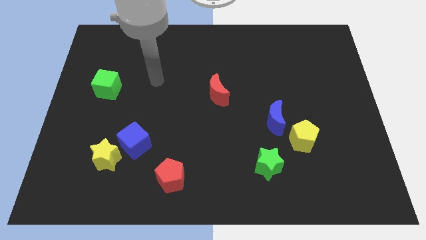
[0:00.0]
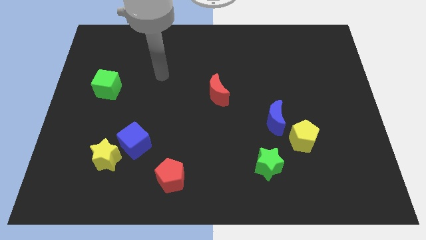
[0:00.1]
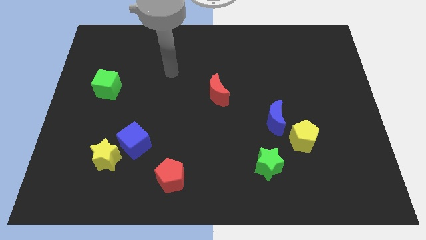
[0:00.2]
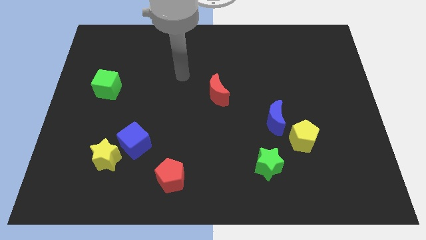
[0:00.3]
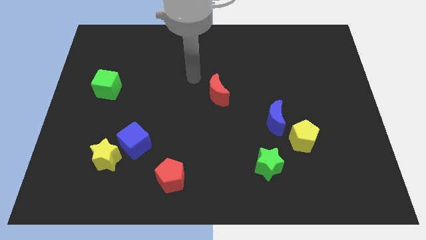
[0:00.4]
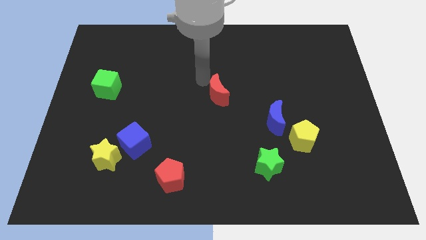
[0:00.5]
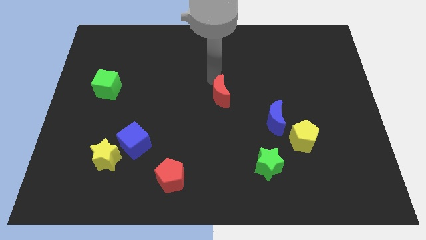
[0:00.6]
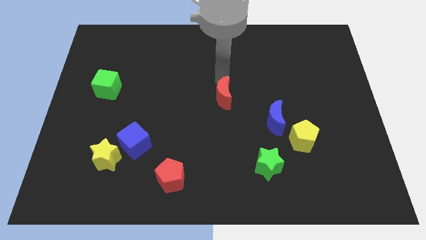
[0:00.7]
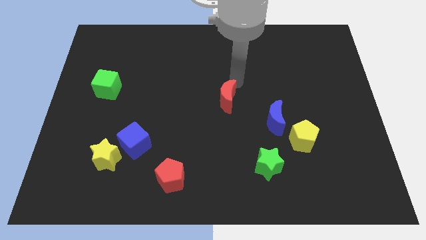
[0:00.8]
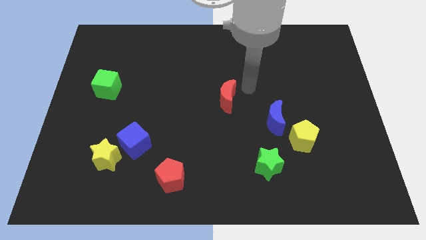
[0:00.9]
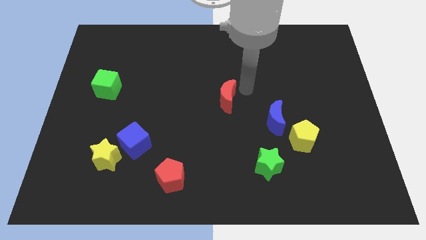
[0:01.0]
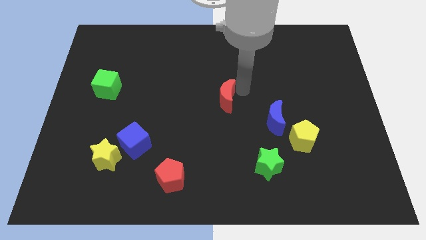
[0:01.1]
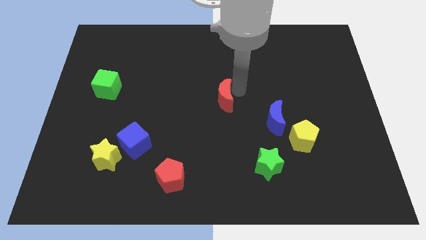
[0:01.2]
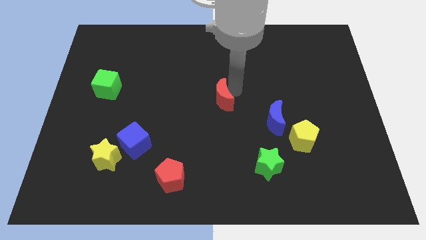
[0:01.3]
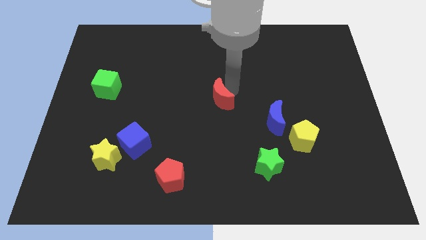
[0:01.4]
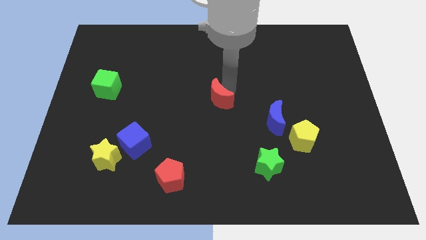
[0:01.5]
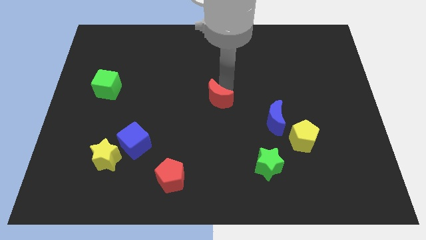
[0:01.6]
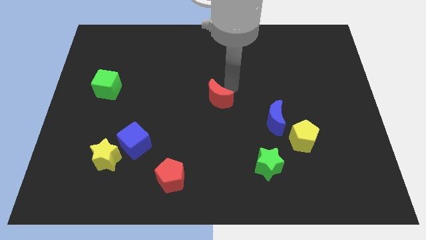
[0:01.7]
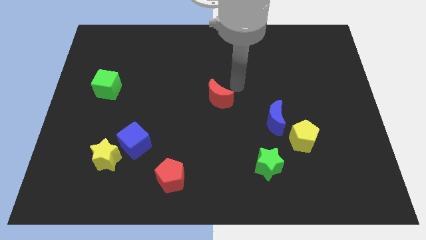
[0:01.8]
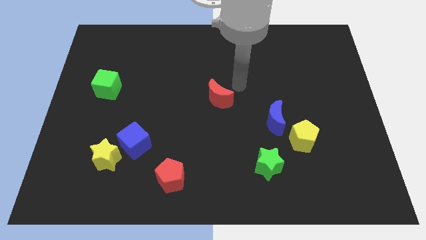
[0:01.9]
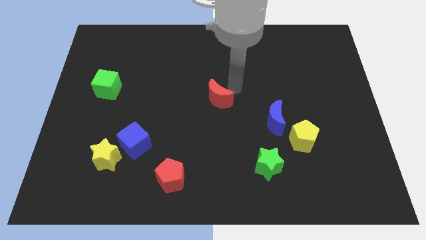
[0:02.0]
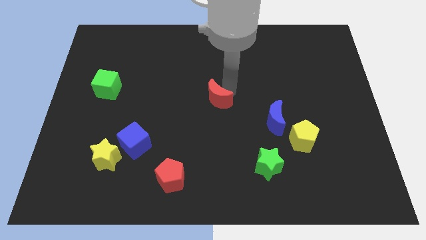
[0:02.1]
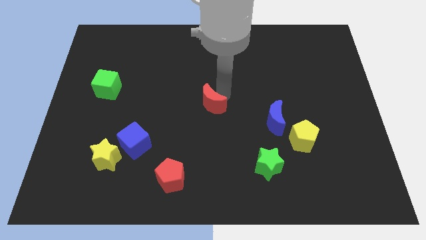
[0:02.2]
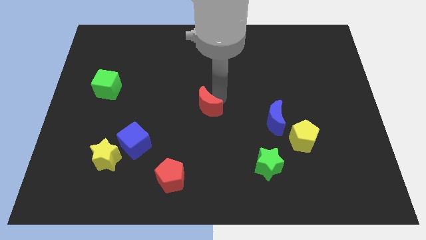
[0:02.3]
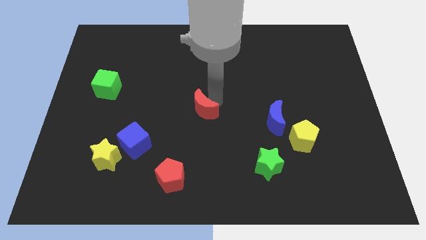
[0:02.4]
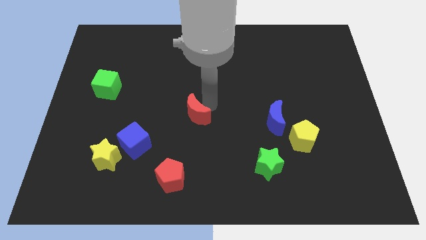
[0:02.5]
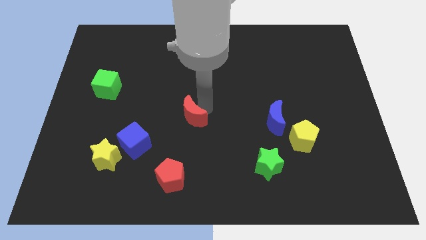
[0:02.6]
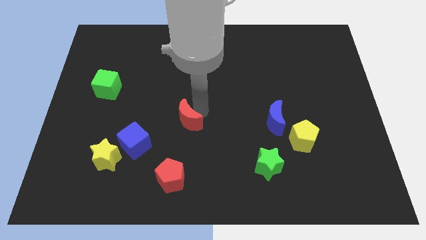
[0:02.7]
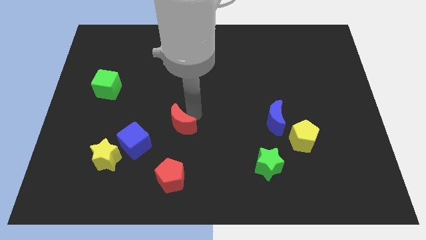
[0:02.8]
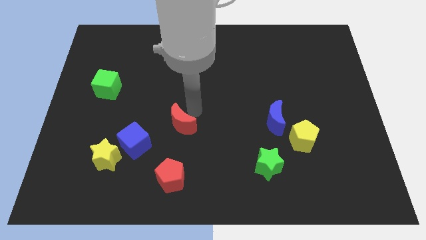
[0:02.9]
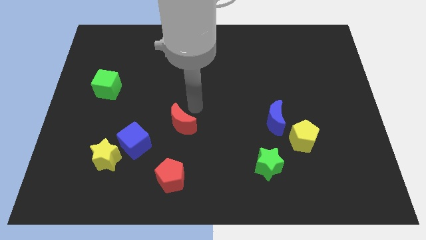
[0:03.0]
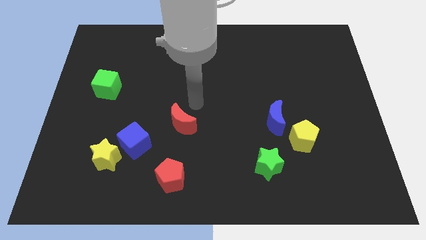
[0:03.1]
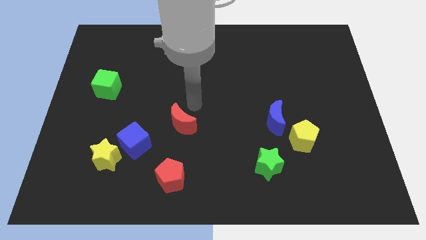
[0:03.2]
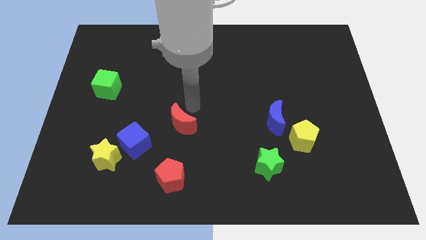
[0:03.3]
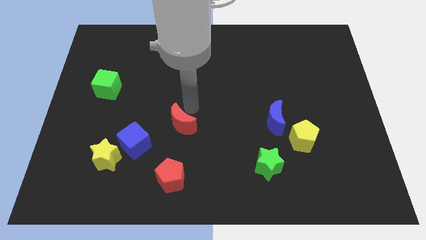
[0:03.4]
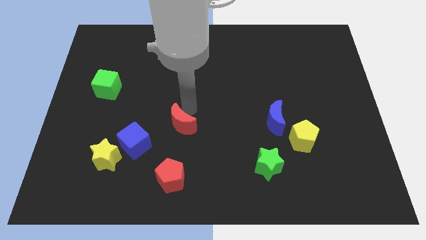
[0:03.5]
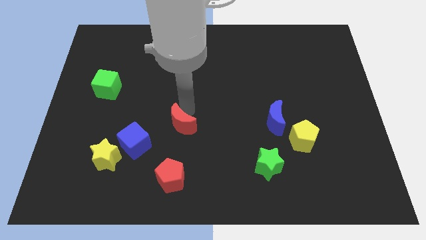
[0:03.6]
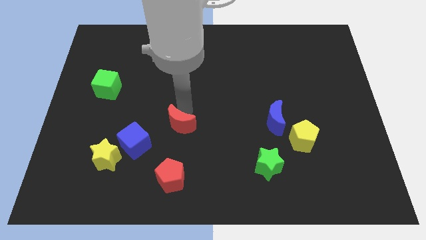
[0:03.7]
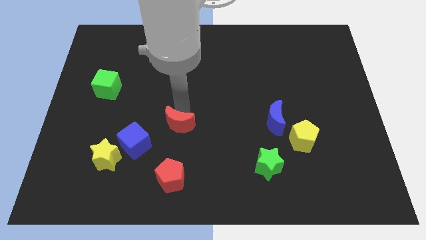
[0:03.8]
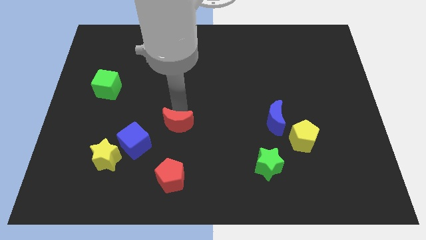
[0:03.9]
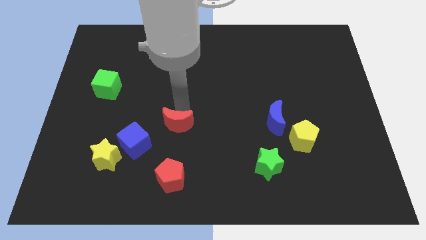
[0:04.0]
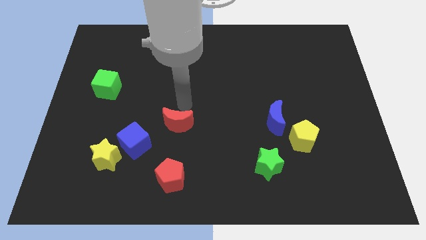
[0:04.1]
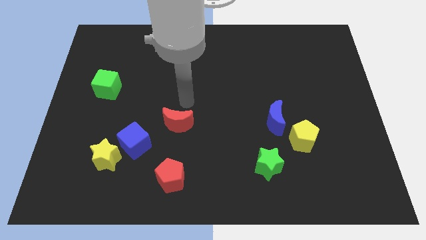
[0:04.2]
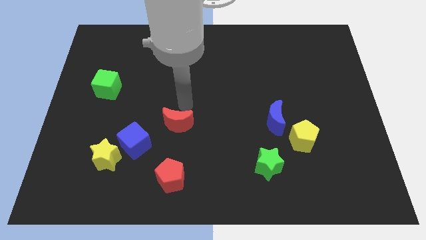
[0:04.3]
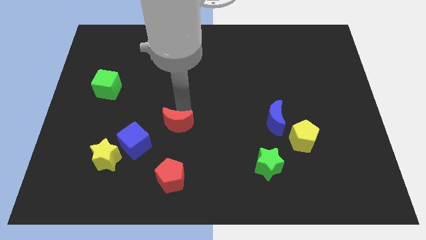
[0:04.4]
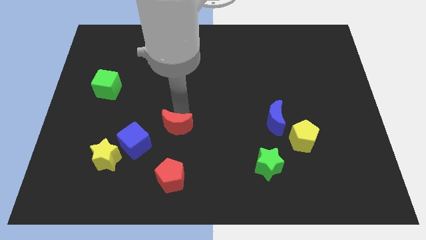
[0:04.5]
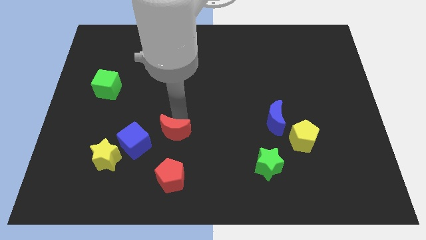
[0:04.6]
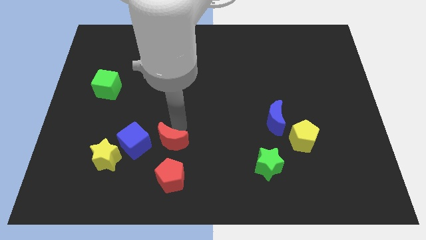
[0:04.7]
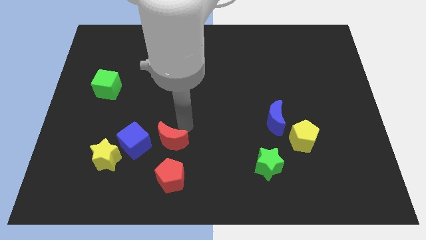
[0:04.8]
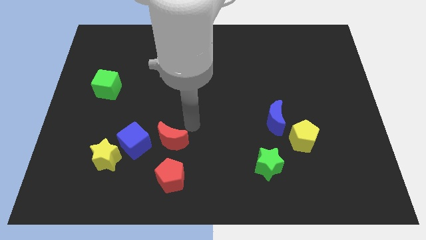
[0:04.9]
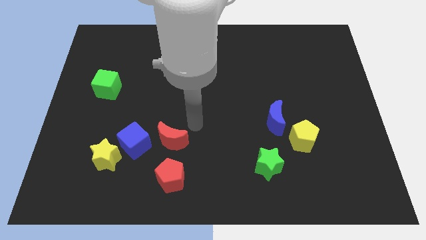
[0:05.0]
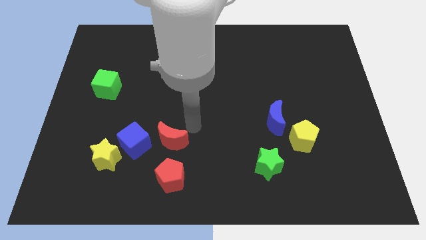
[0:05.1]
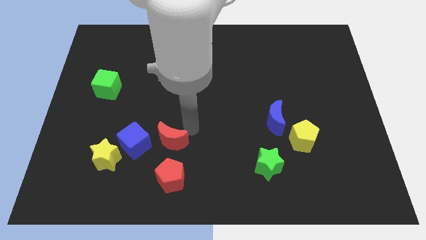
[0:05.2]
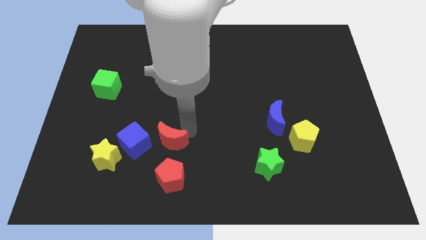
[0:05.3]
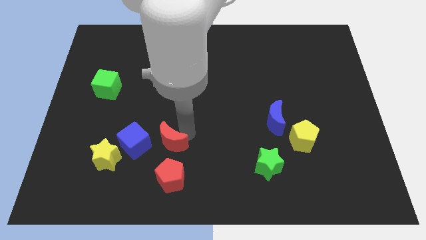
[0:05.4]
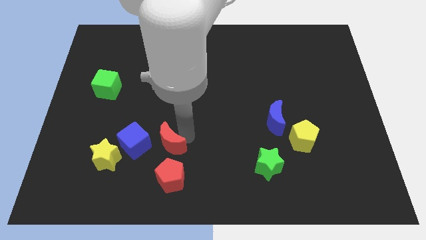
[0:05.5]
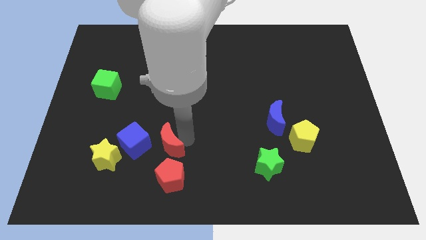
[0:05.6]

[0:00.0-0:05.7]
push the red moon to the top left of the red pentagon

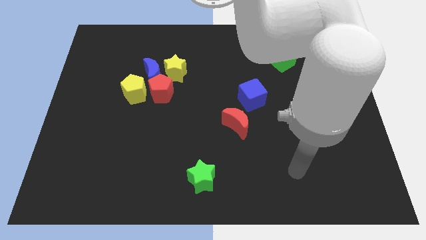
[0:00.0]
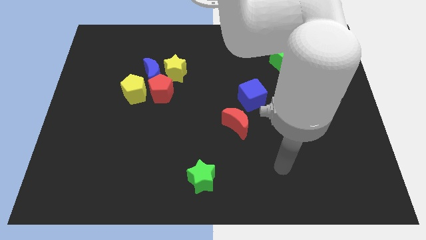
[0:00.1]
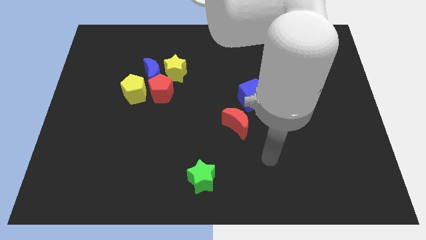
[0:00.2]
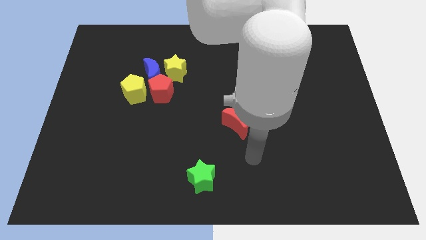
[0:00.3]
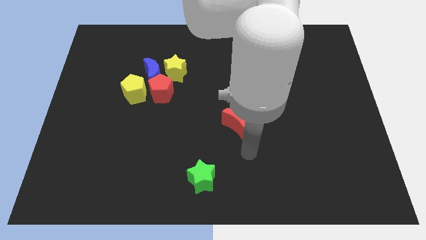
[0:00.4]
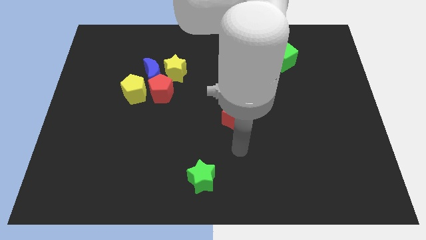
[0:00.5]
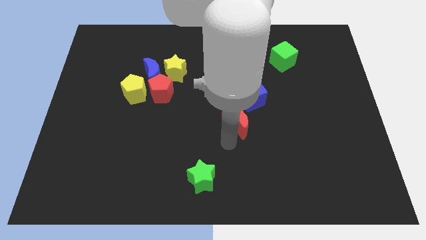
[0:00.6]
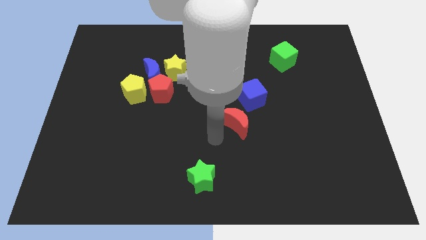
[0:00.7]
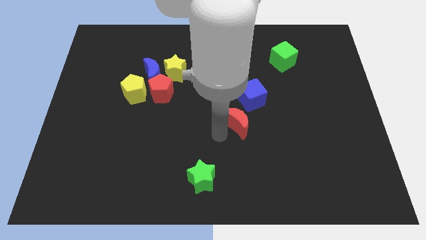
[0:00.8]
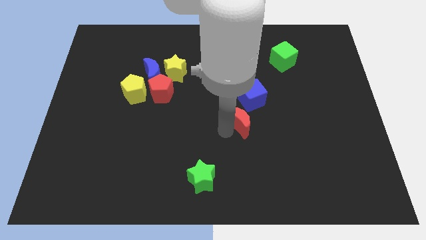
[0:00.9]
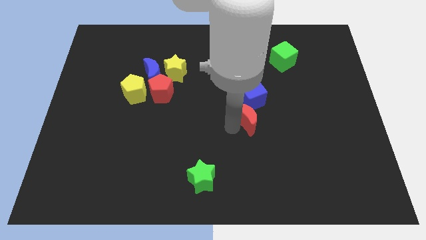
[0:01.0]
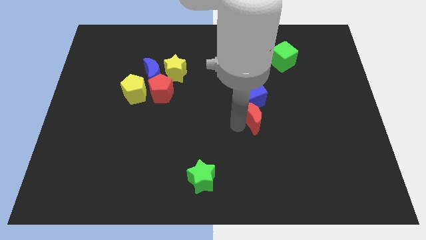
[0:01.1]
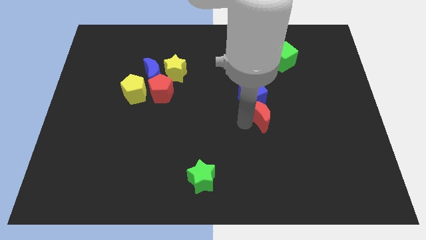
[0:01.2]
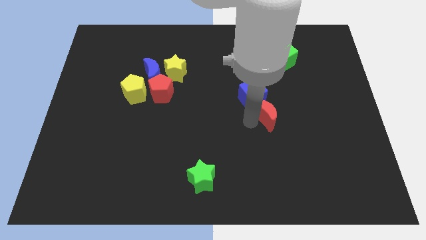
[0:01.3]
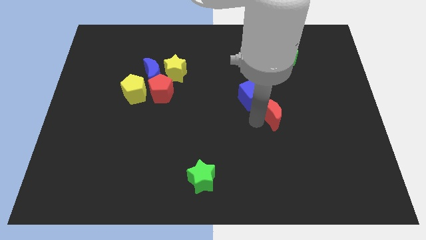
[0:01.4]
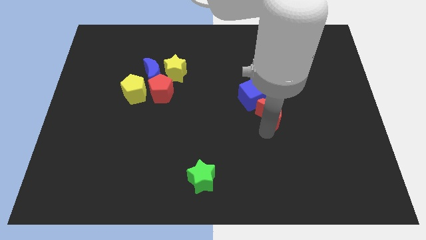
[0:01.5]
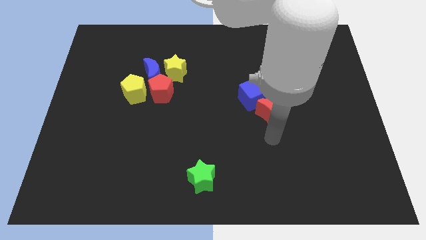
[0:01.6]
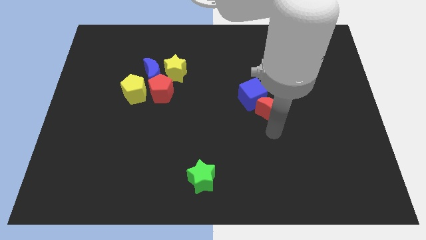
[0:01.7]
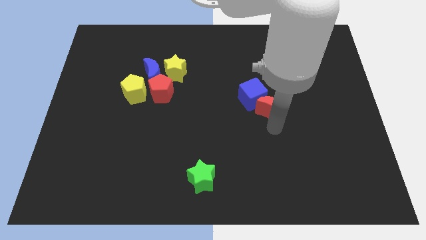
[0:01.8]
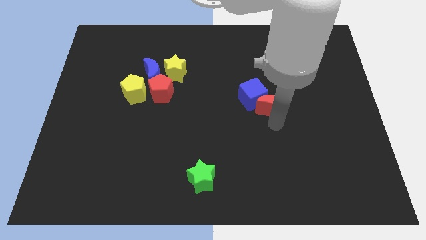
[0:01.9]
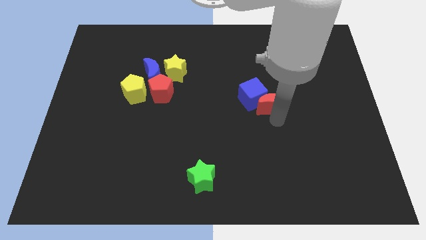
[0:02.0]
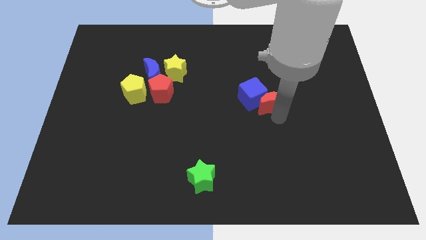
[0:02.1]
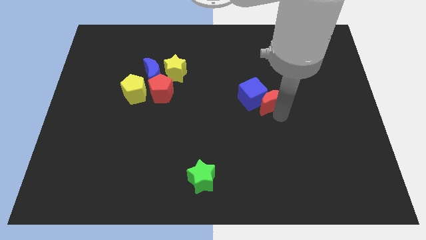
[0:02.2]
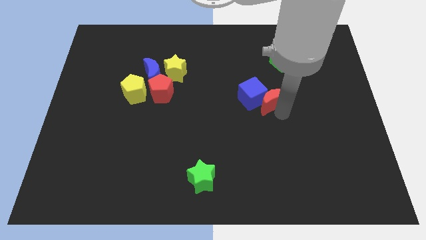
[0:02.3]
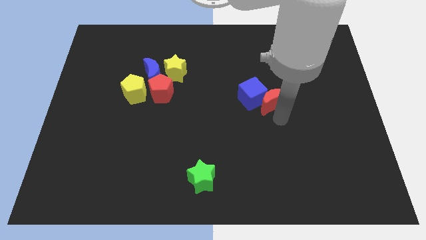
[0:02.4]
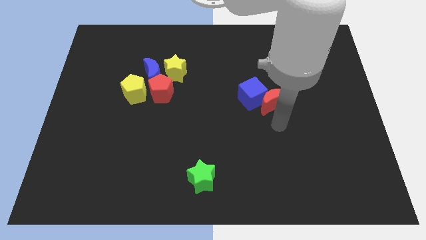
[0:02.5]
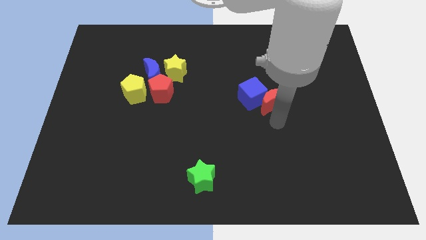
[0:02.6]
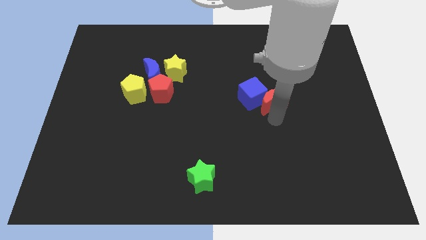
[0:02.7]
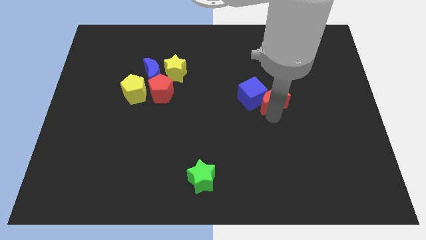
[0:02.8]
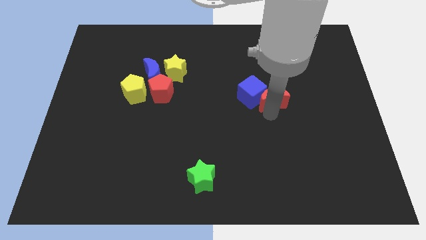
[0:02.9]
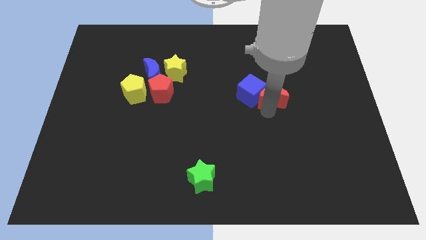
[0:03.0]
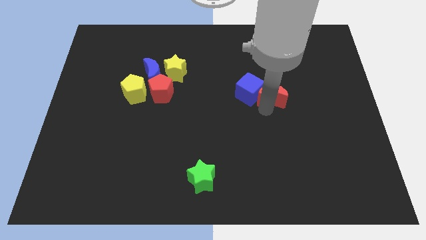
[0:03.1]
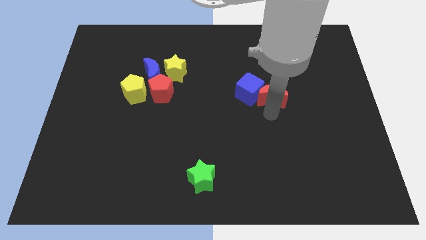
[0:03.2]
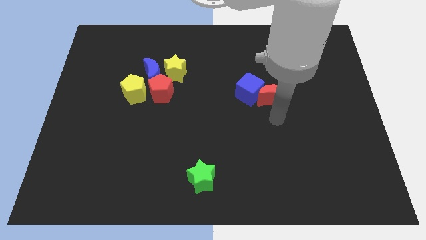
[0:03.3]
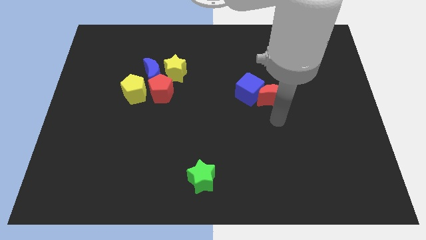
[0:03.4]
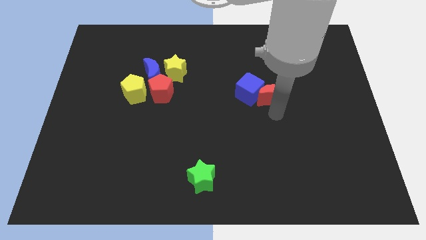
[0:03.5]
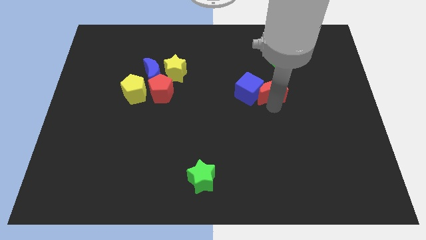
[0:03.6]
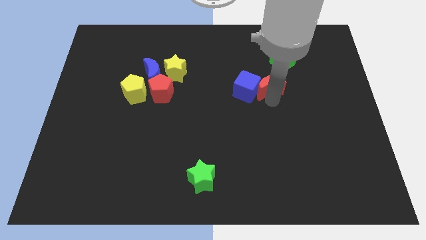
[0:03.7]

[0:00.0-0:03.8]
slide the red moon to the bottom left side of the green cube
